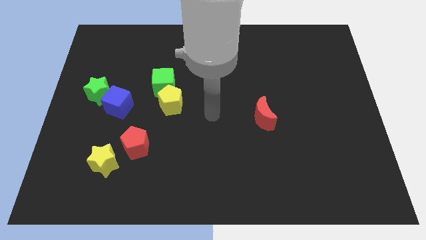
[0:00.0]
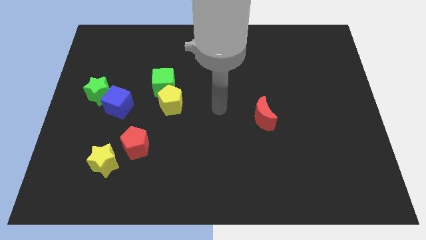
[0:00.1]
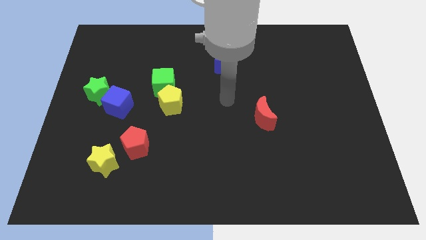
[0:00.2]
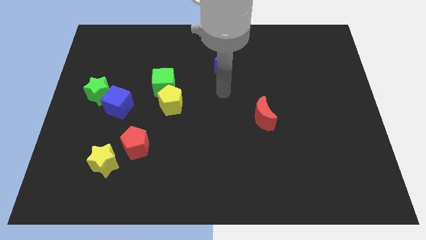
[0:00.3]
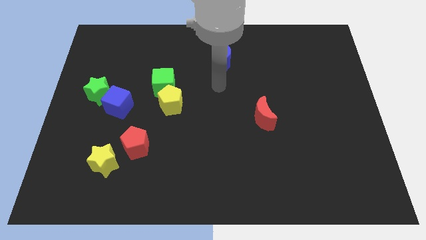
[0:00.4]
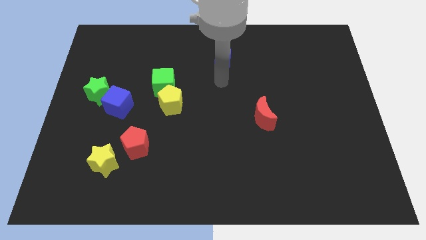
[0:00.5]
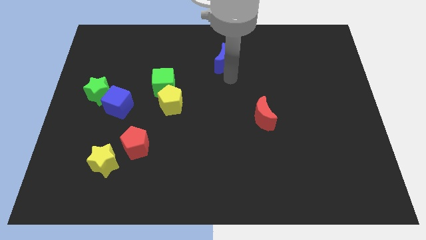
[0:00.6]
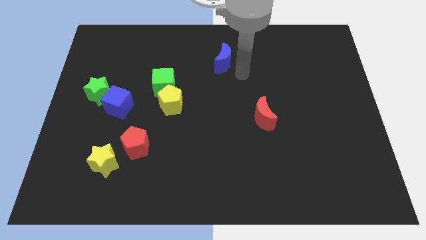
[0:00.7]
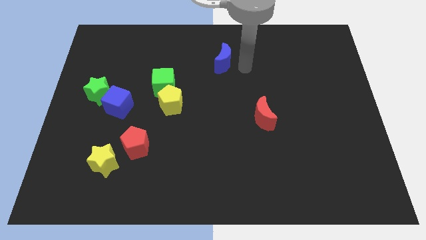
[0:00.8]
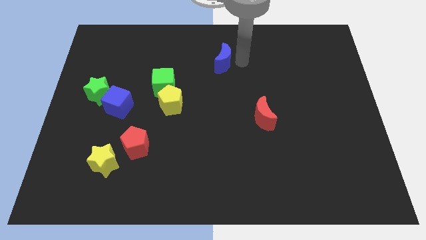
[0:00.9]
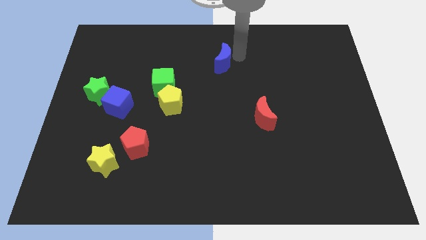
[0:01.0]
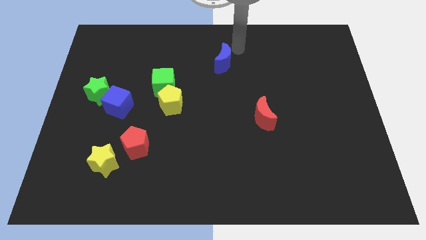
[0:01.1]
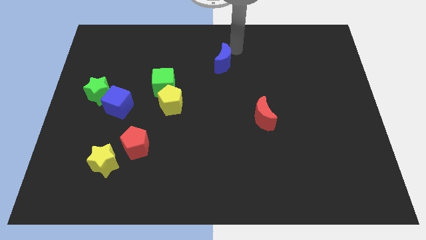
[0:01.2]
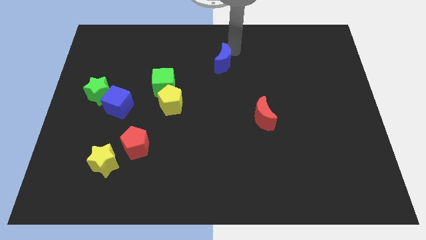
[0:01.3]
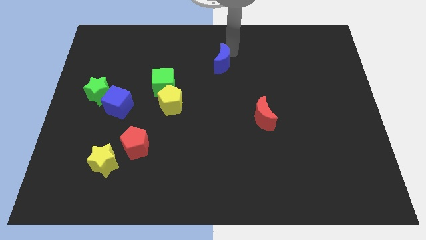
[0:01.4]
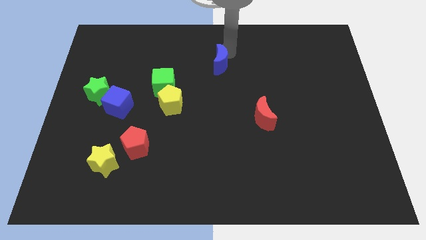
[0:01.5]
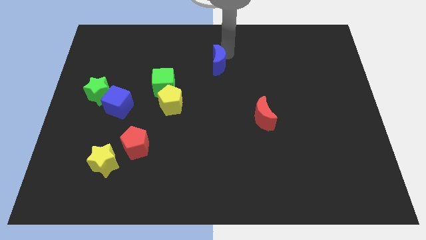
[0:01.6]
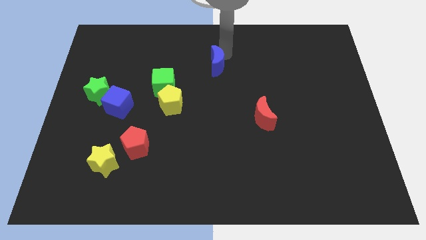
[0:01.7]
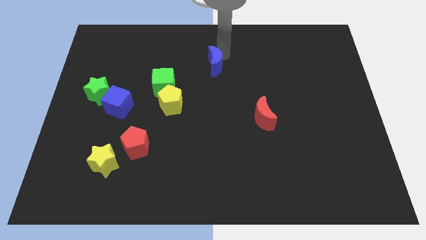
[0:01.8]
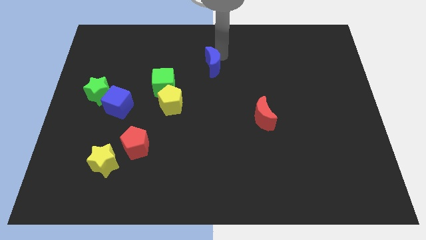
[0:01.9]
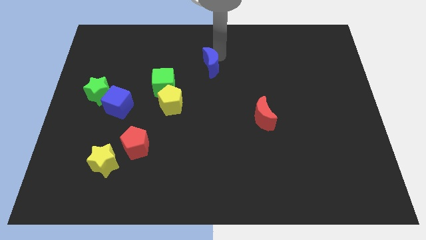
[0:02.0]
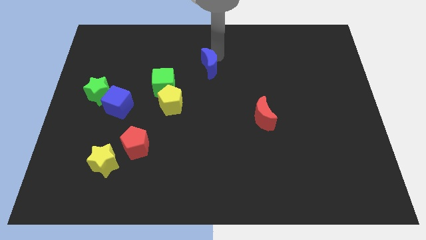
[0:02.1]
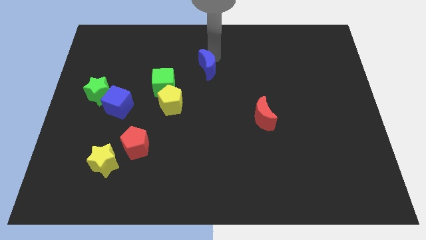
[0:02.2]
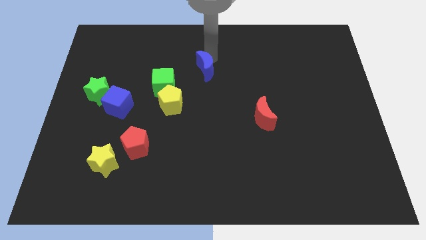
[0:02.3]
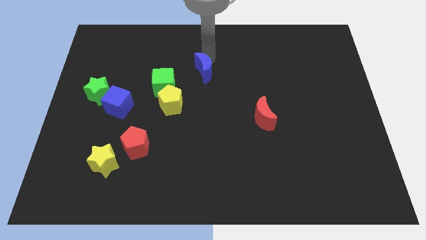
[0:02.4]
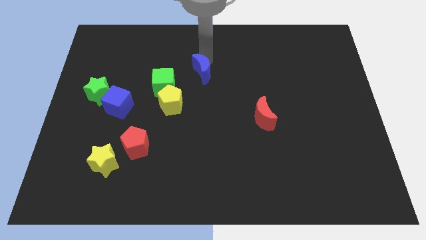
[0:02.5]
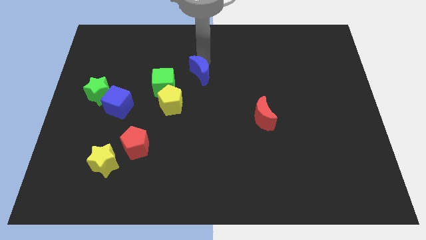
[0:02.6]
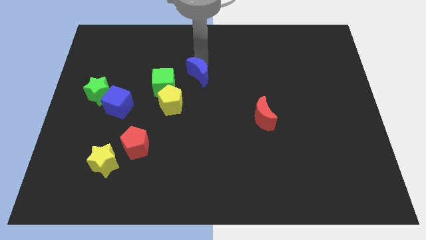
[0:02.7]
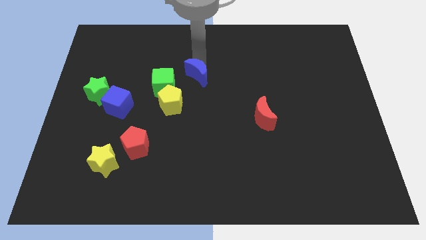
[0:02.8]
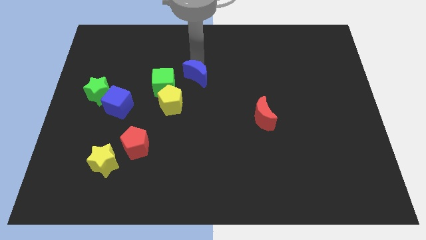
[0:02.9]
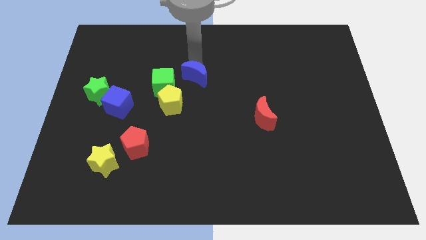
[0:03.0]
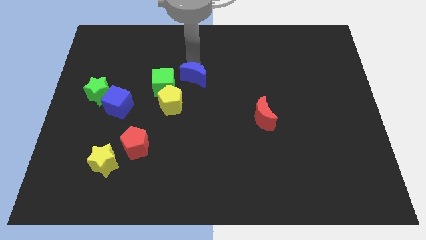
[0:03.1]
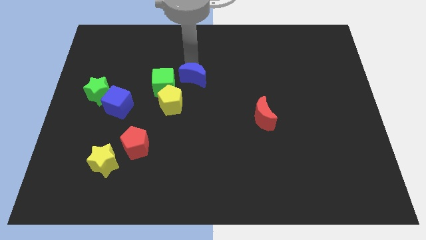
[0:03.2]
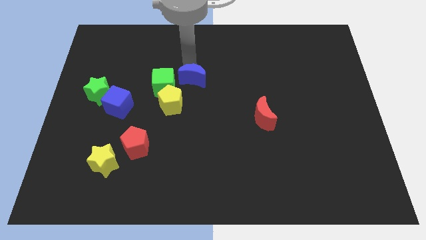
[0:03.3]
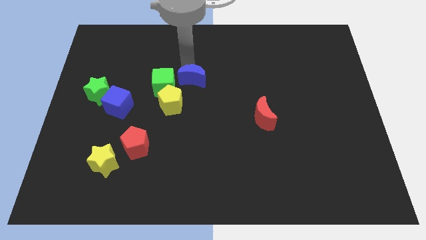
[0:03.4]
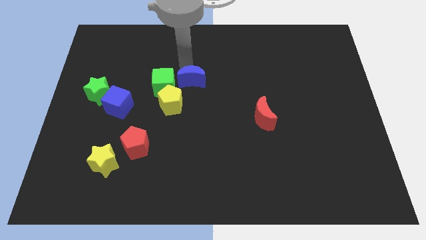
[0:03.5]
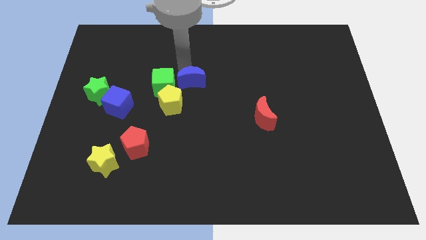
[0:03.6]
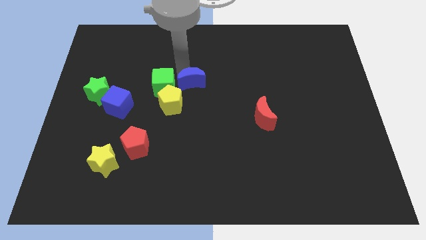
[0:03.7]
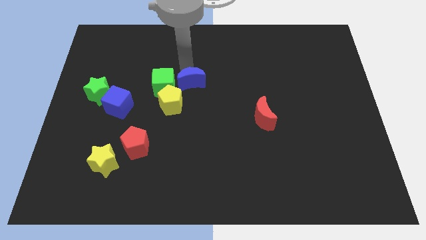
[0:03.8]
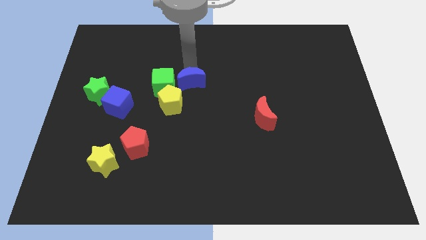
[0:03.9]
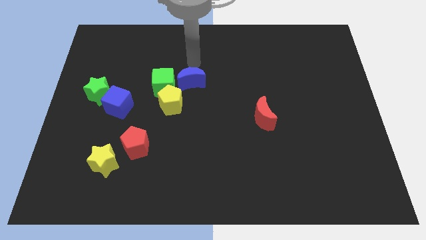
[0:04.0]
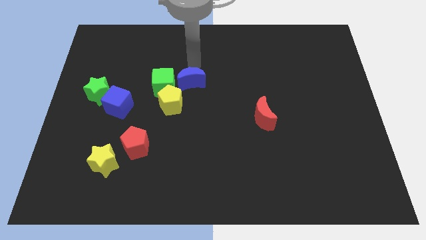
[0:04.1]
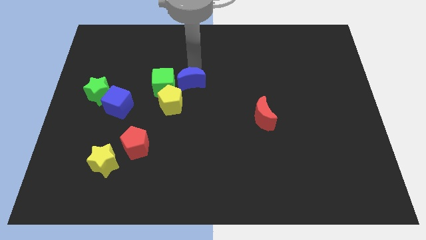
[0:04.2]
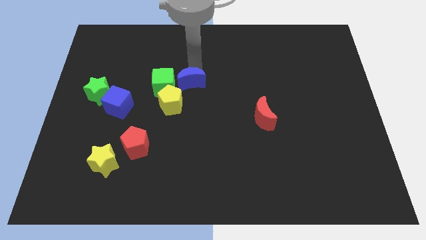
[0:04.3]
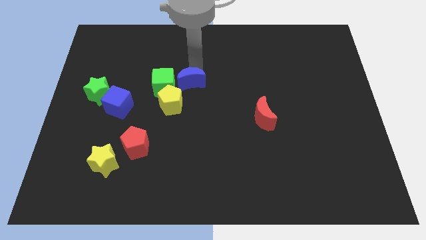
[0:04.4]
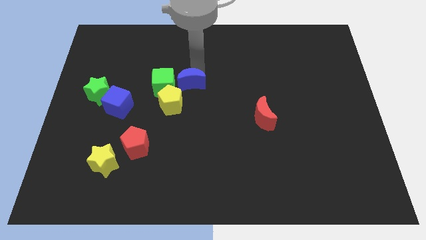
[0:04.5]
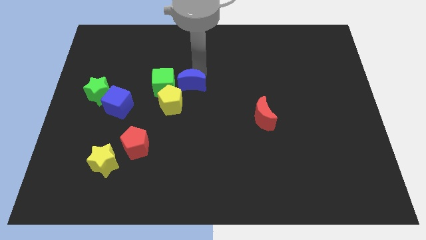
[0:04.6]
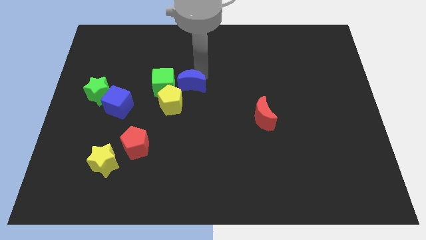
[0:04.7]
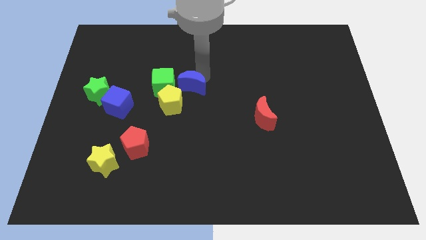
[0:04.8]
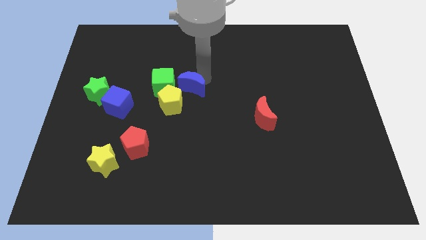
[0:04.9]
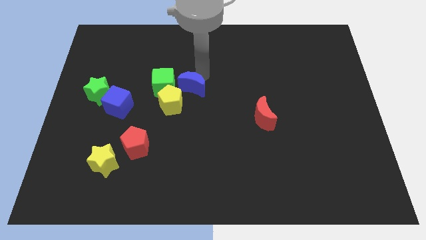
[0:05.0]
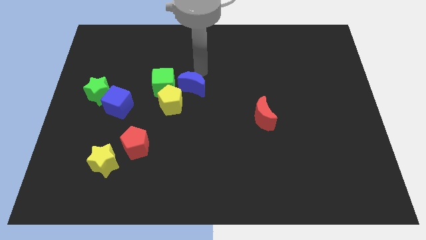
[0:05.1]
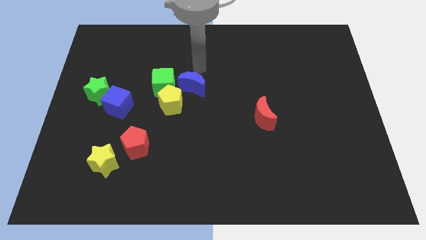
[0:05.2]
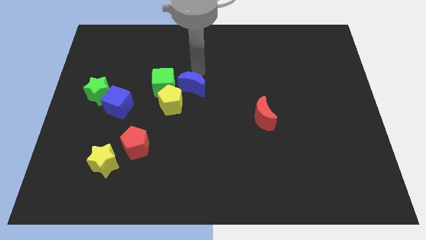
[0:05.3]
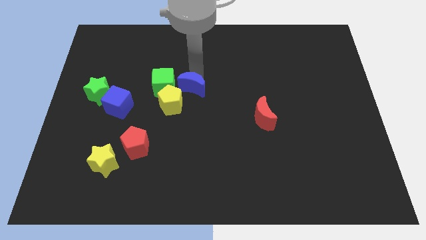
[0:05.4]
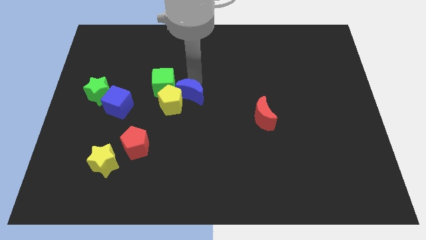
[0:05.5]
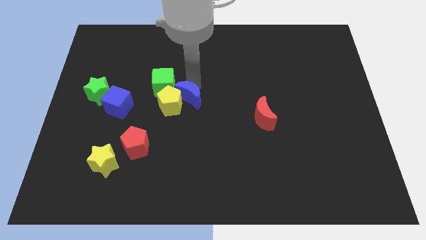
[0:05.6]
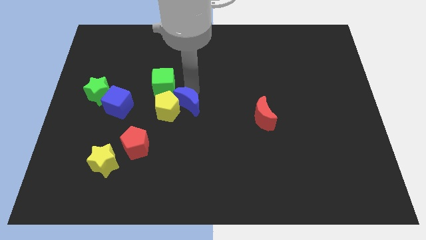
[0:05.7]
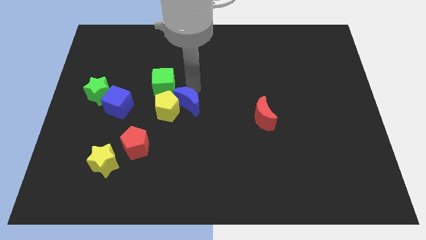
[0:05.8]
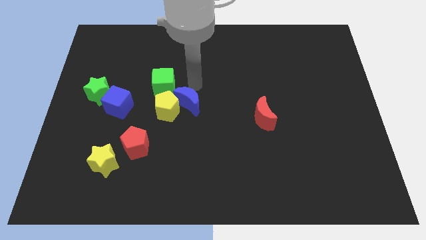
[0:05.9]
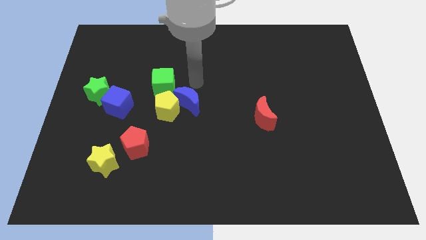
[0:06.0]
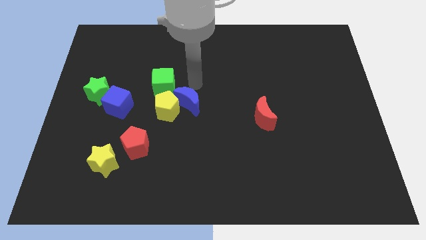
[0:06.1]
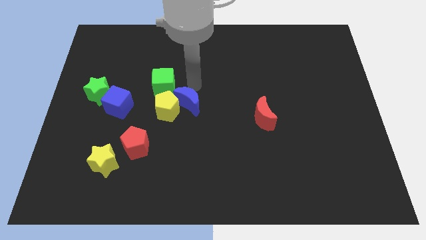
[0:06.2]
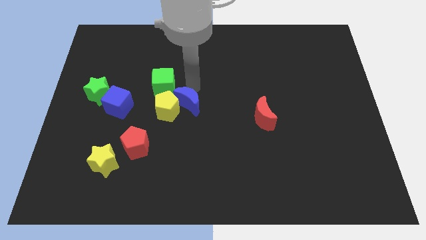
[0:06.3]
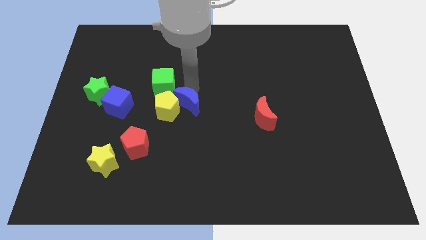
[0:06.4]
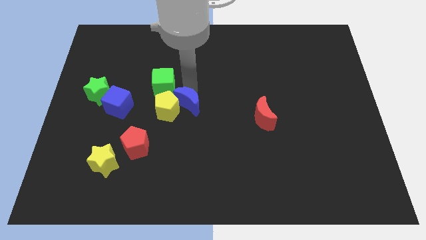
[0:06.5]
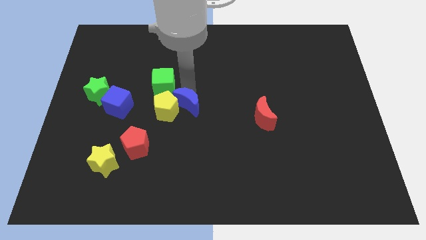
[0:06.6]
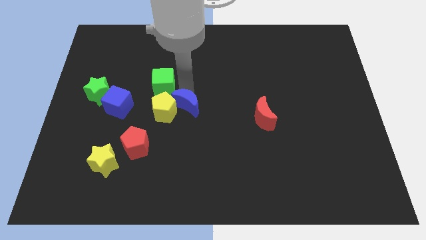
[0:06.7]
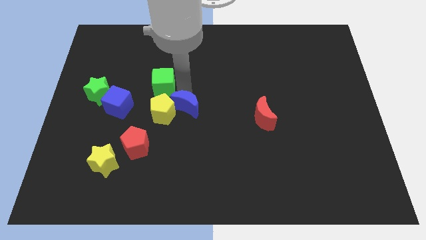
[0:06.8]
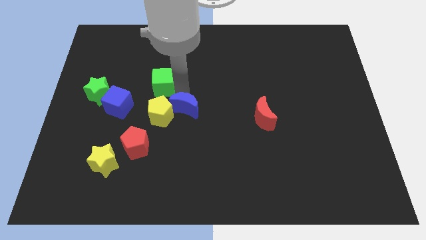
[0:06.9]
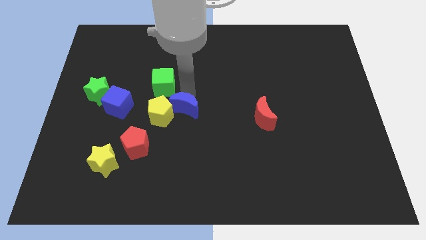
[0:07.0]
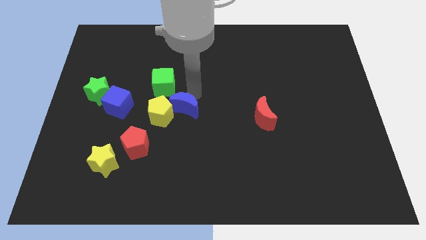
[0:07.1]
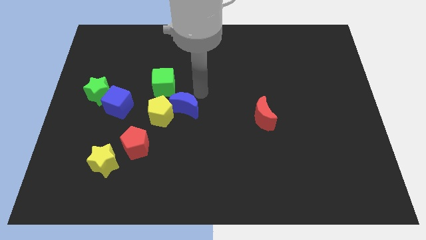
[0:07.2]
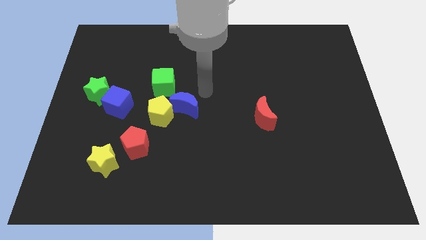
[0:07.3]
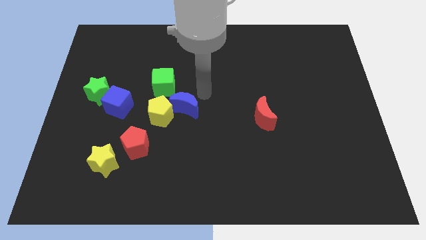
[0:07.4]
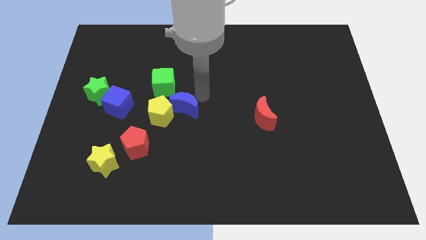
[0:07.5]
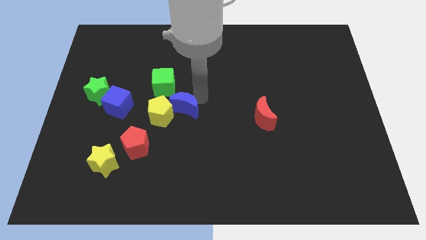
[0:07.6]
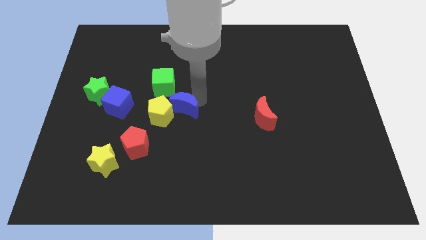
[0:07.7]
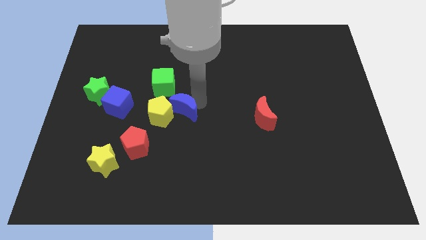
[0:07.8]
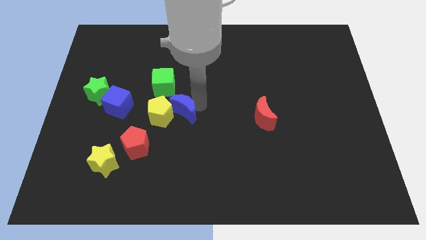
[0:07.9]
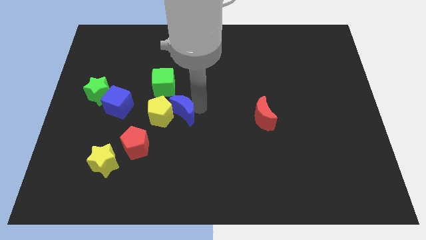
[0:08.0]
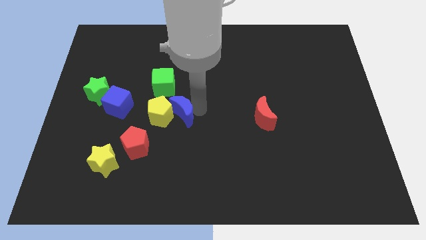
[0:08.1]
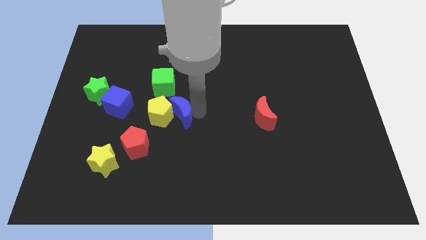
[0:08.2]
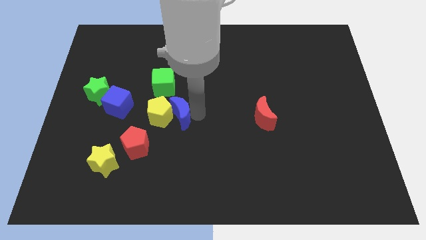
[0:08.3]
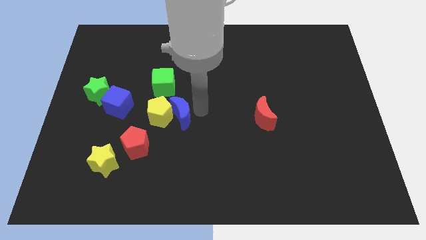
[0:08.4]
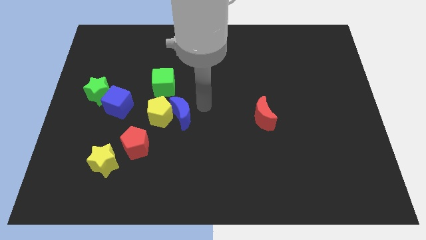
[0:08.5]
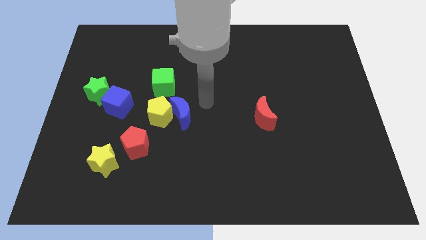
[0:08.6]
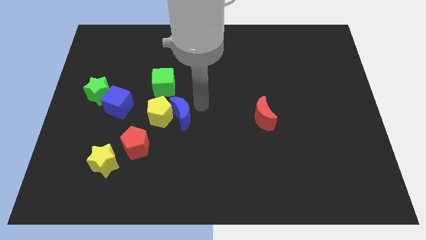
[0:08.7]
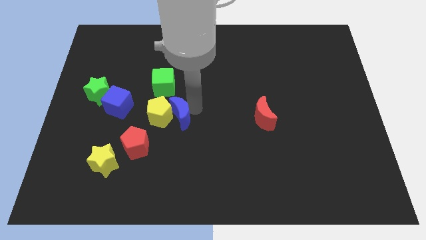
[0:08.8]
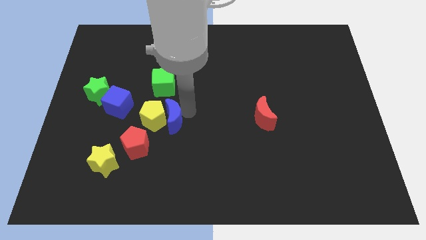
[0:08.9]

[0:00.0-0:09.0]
slide the blue moon down and to the left diagonally
